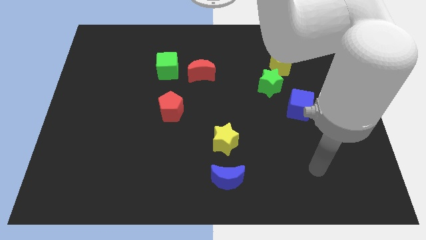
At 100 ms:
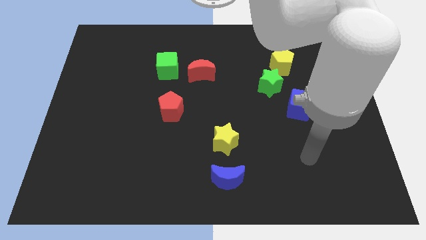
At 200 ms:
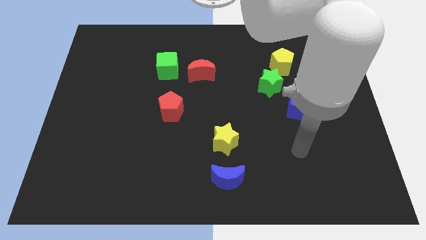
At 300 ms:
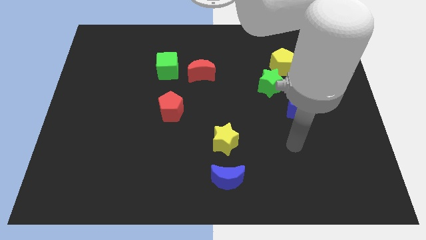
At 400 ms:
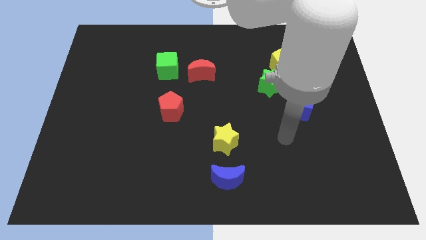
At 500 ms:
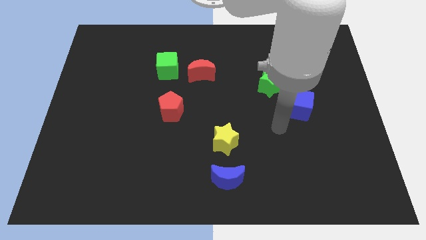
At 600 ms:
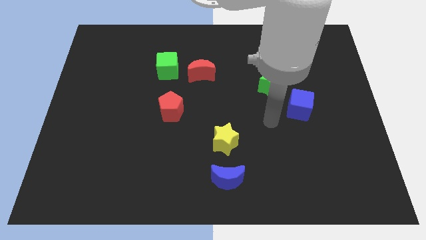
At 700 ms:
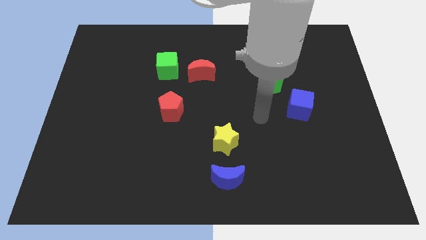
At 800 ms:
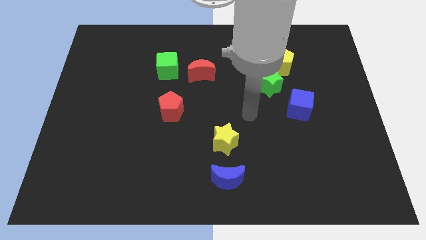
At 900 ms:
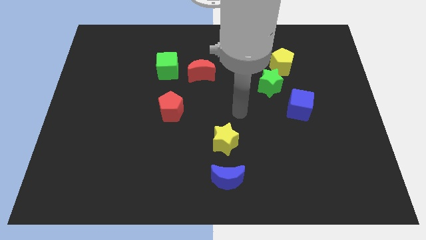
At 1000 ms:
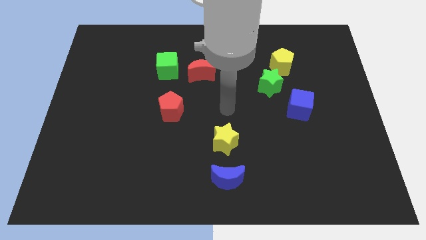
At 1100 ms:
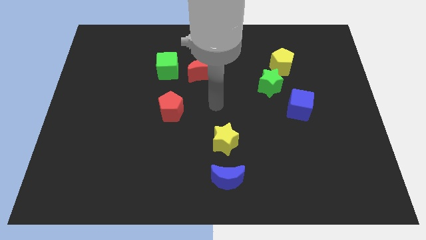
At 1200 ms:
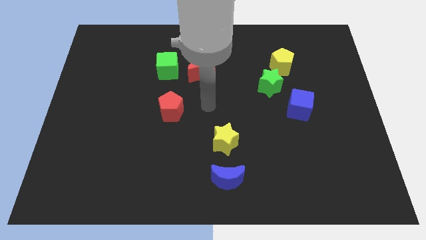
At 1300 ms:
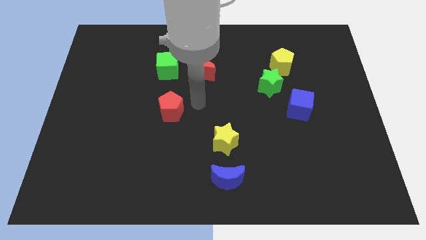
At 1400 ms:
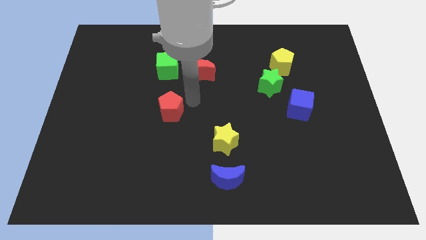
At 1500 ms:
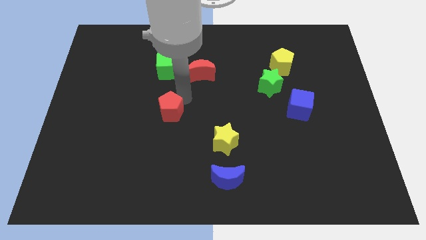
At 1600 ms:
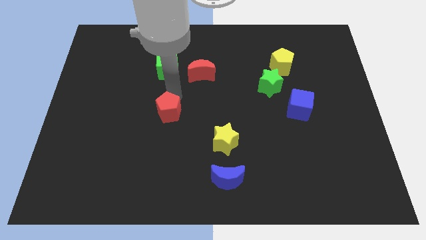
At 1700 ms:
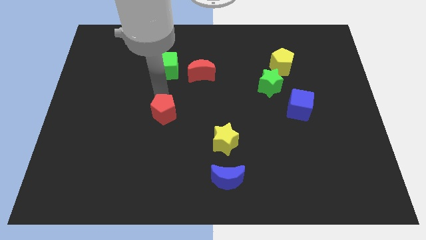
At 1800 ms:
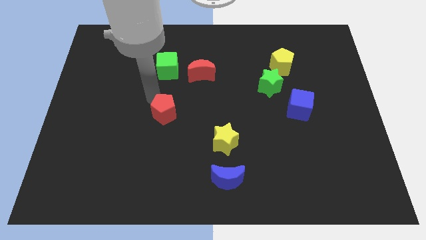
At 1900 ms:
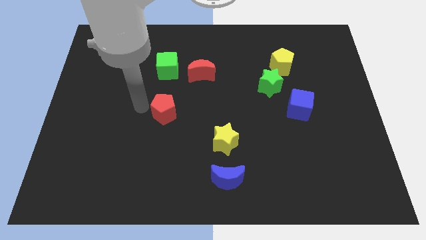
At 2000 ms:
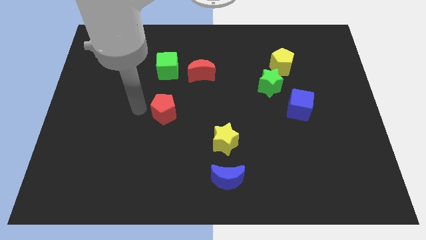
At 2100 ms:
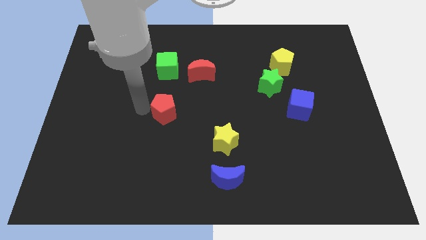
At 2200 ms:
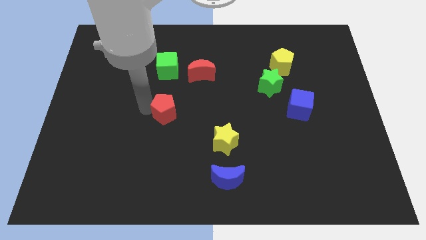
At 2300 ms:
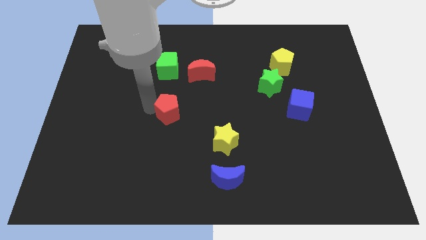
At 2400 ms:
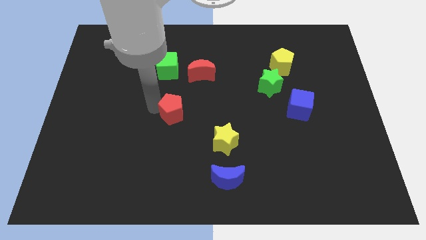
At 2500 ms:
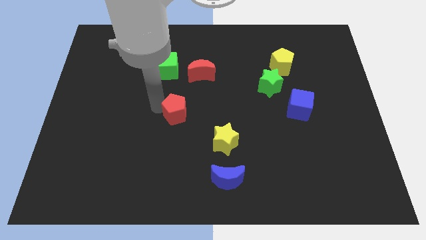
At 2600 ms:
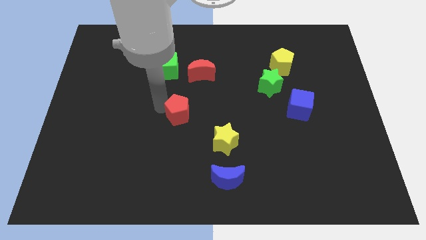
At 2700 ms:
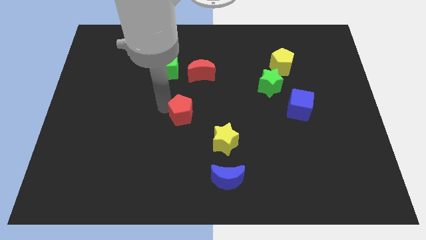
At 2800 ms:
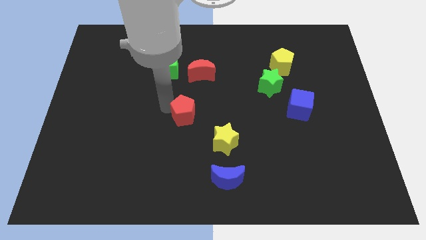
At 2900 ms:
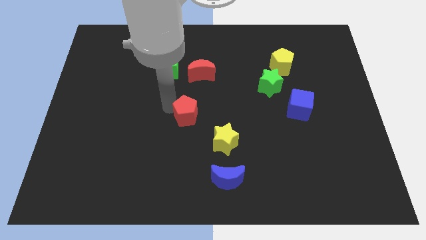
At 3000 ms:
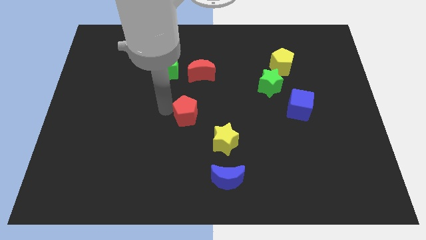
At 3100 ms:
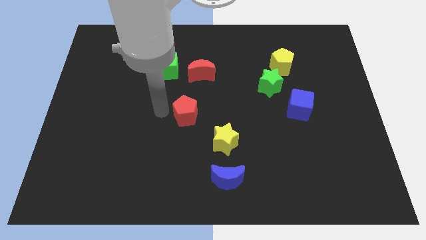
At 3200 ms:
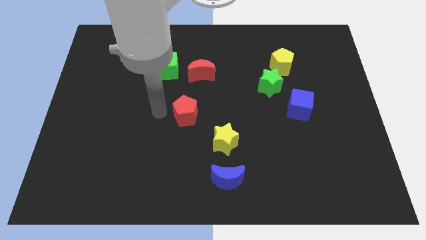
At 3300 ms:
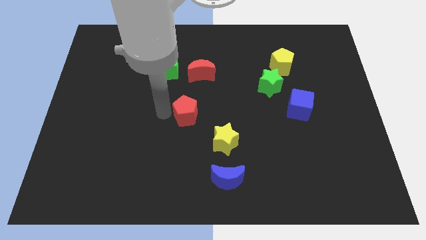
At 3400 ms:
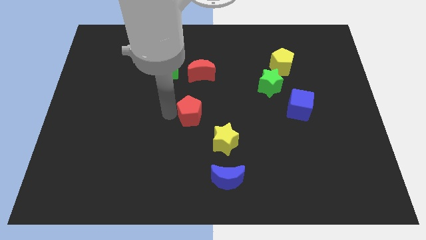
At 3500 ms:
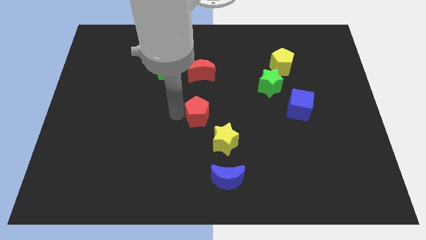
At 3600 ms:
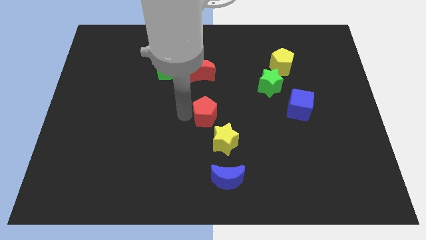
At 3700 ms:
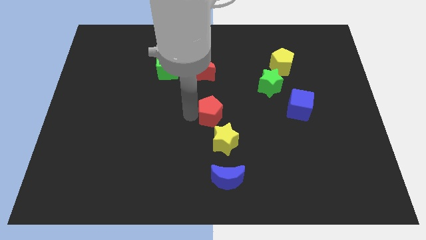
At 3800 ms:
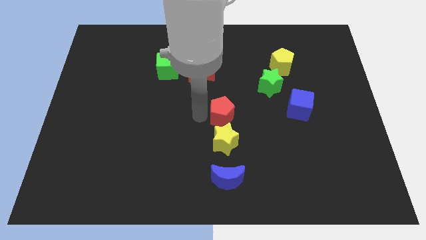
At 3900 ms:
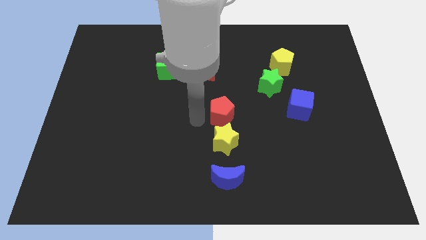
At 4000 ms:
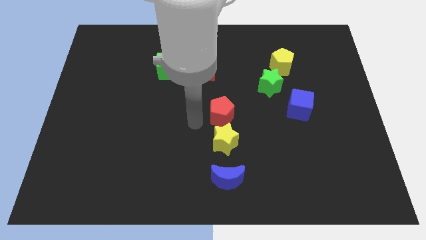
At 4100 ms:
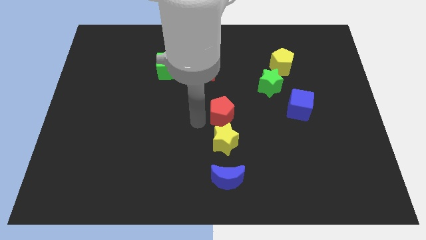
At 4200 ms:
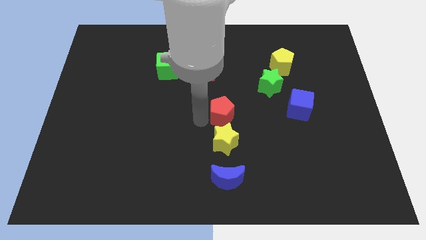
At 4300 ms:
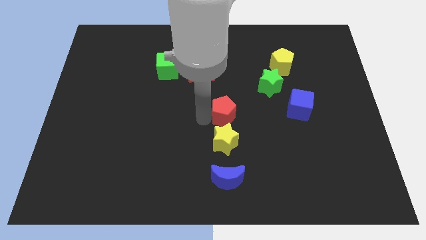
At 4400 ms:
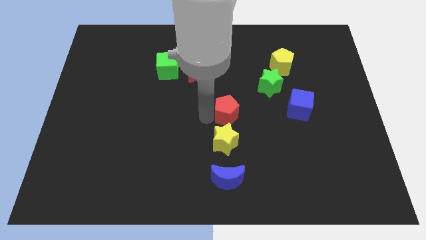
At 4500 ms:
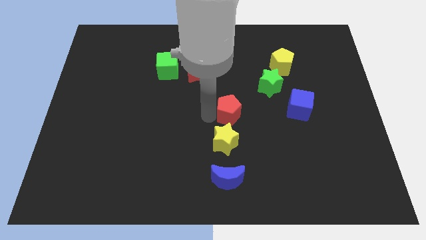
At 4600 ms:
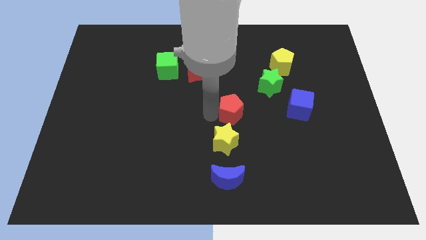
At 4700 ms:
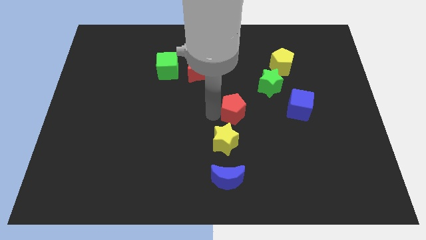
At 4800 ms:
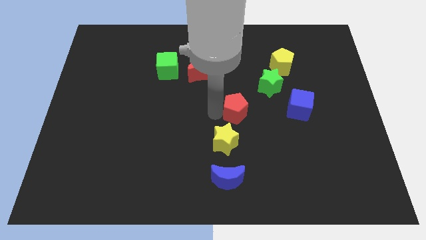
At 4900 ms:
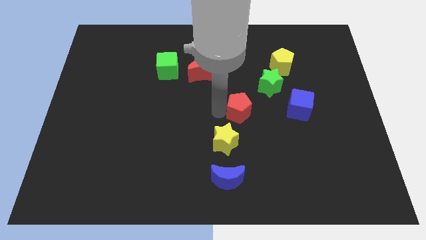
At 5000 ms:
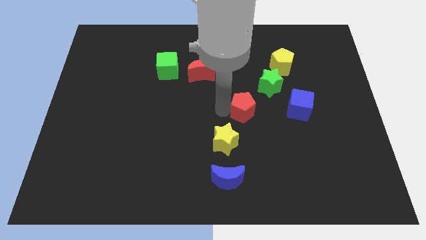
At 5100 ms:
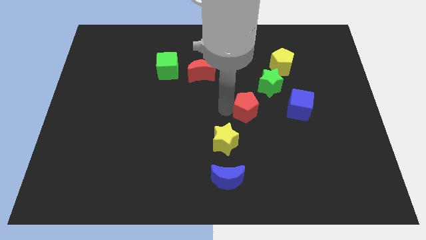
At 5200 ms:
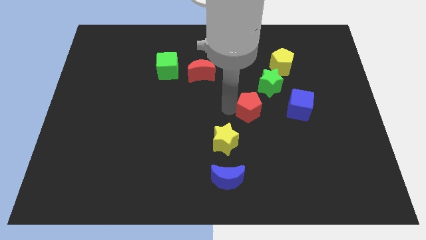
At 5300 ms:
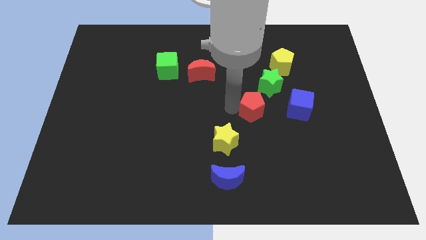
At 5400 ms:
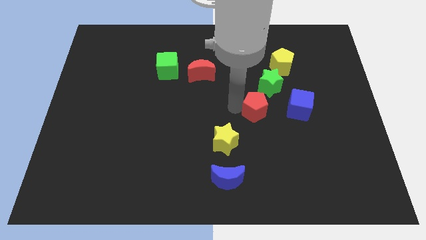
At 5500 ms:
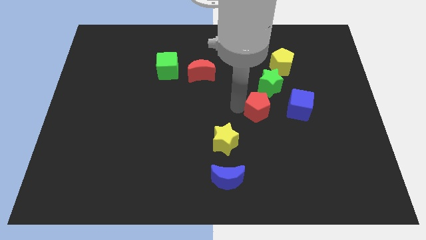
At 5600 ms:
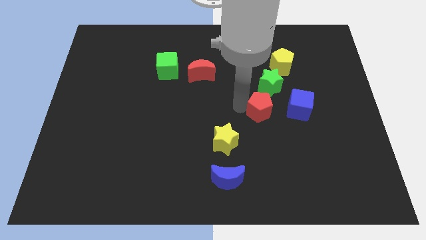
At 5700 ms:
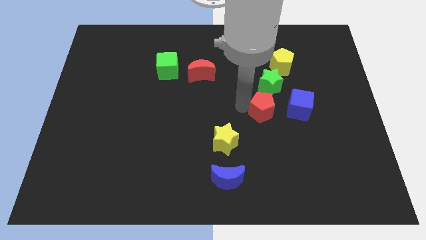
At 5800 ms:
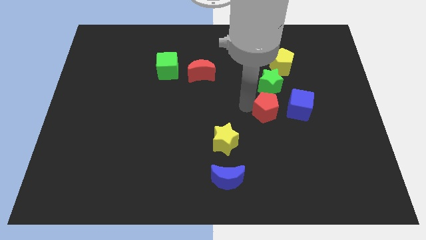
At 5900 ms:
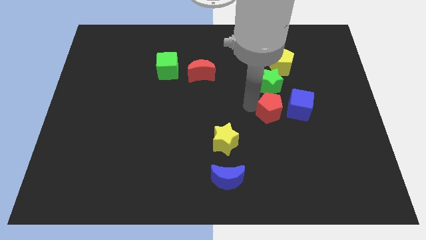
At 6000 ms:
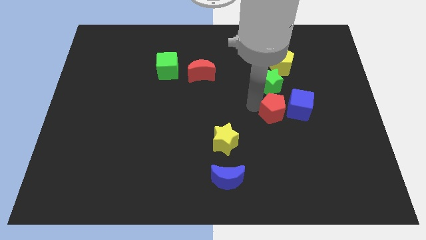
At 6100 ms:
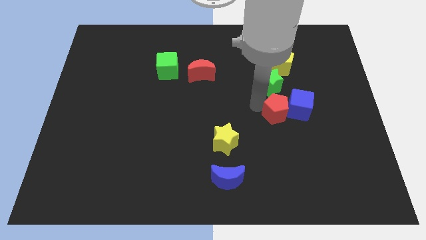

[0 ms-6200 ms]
move the red pentagon to the blue cube

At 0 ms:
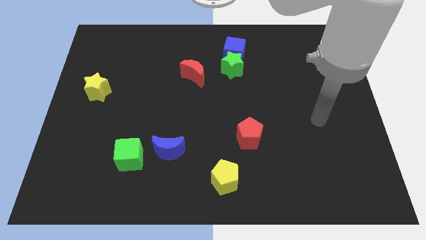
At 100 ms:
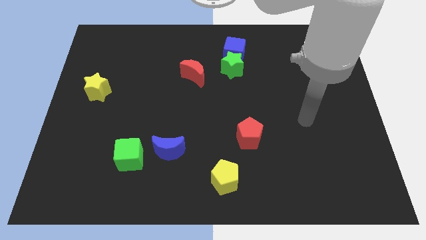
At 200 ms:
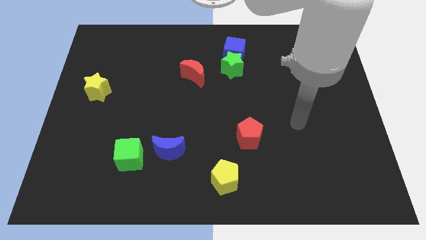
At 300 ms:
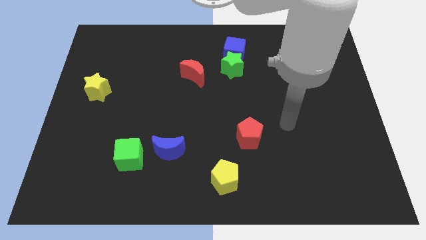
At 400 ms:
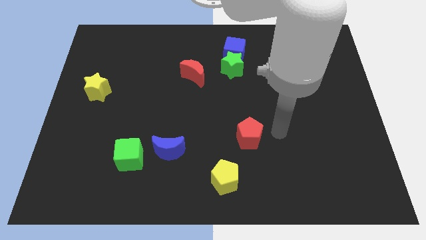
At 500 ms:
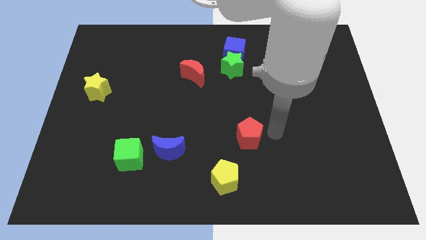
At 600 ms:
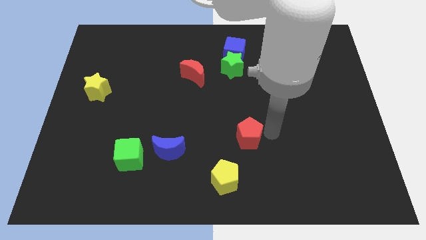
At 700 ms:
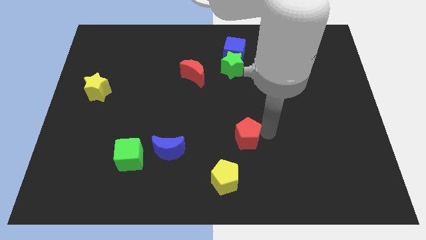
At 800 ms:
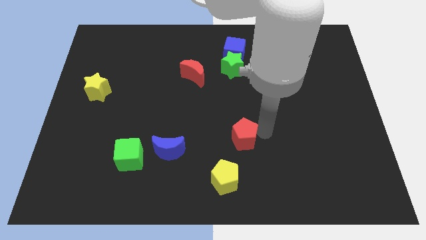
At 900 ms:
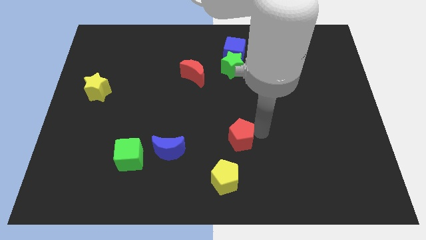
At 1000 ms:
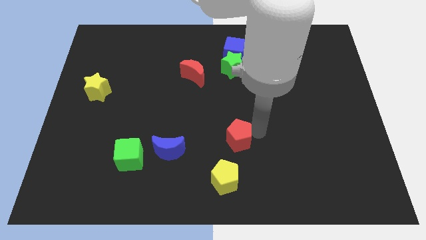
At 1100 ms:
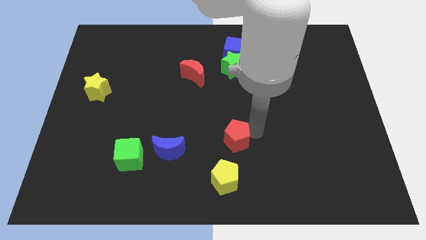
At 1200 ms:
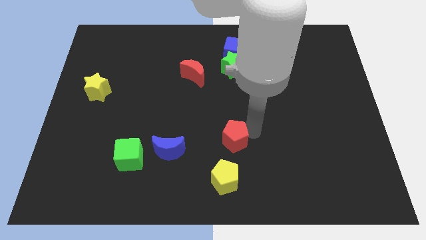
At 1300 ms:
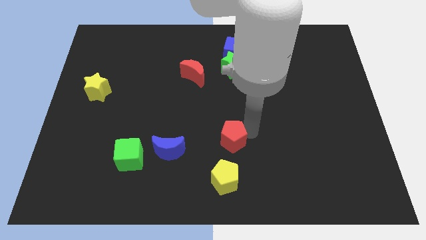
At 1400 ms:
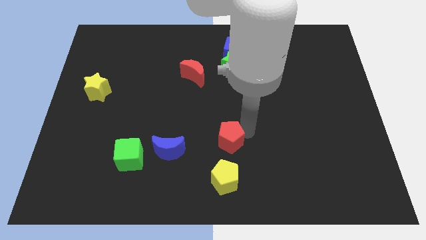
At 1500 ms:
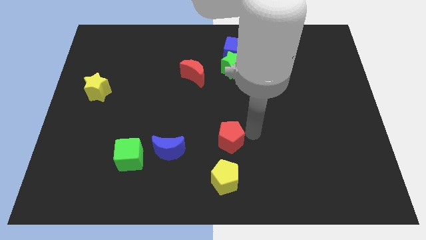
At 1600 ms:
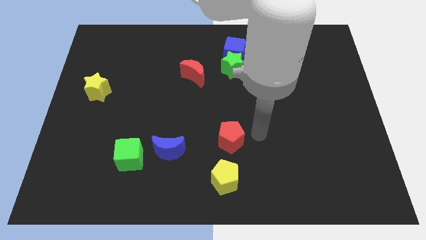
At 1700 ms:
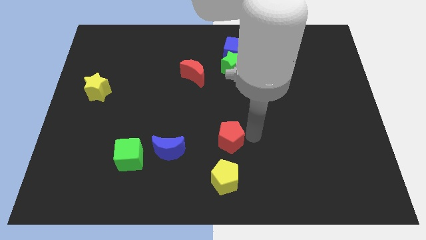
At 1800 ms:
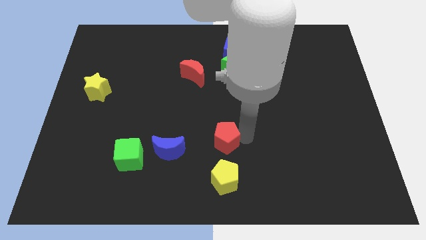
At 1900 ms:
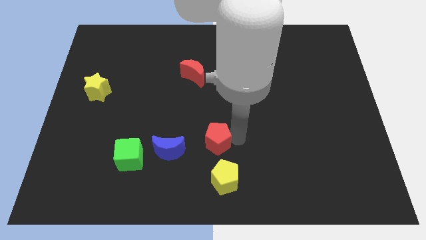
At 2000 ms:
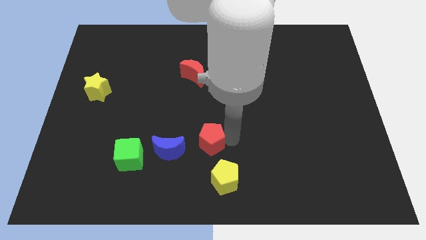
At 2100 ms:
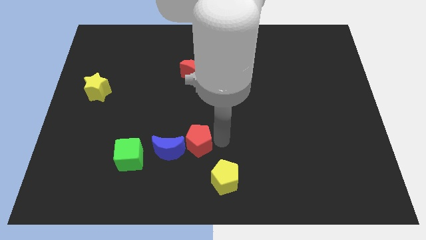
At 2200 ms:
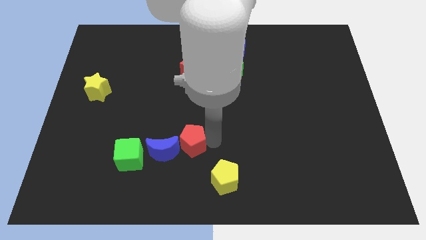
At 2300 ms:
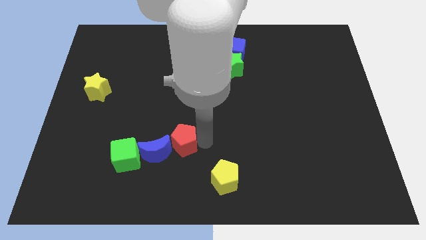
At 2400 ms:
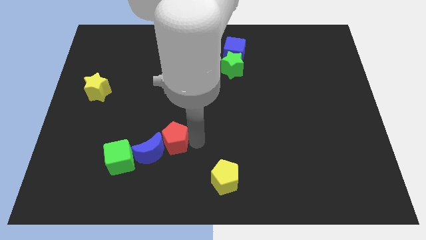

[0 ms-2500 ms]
push the red pentagon to the blue moon
